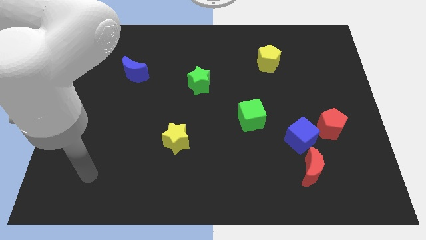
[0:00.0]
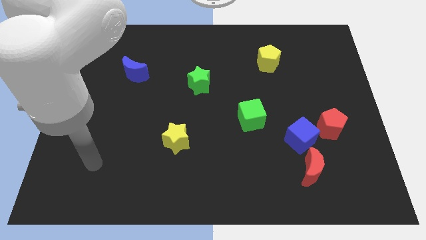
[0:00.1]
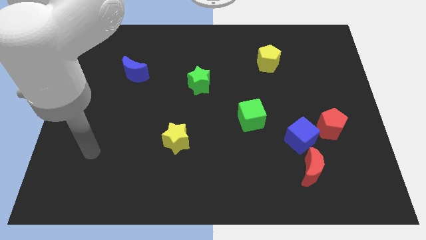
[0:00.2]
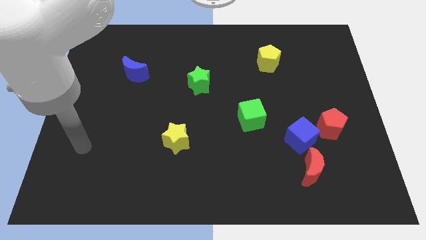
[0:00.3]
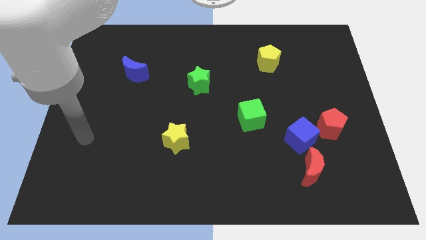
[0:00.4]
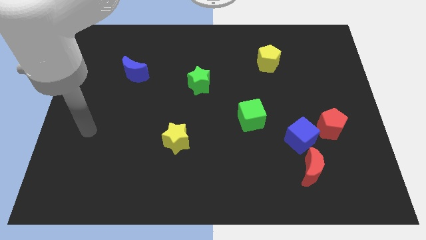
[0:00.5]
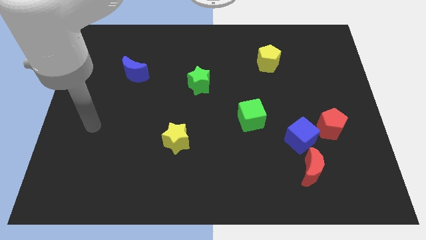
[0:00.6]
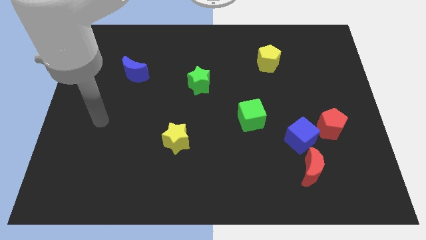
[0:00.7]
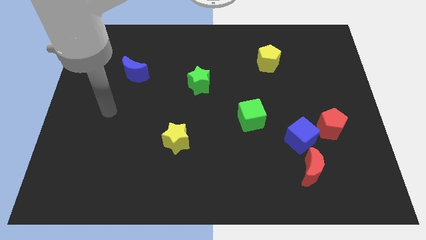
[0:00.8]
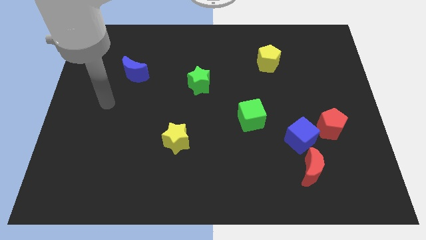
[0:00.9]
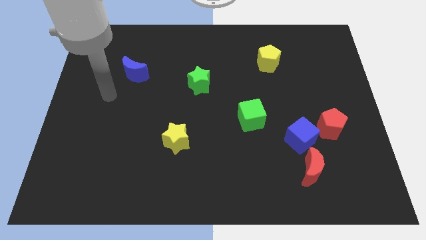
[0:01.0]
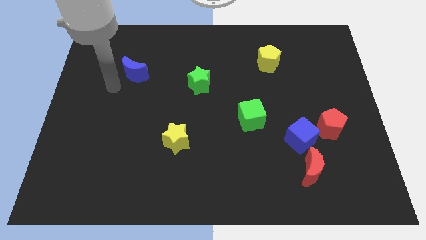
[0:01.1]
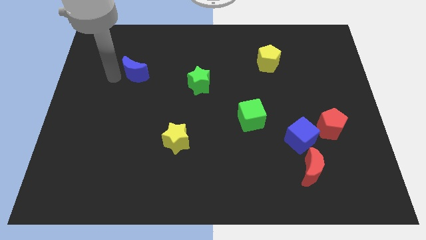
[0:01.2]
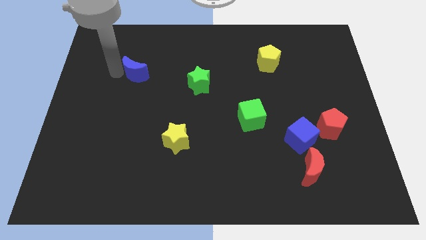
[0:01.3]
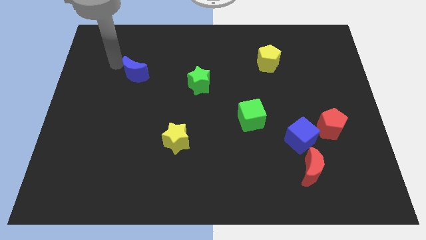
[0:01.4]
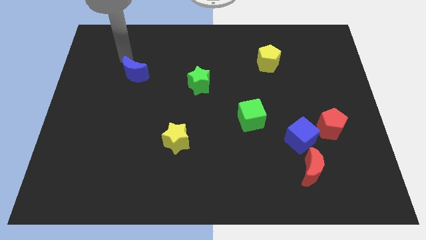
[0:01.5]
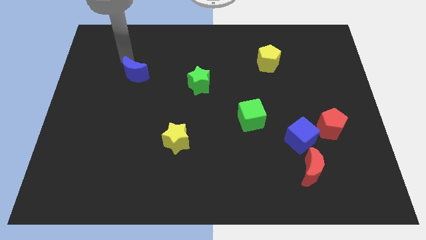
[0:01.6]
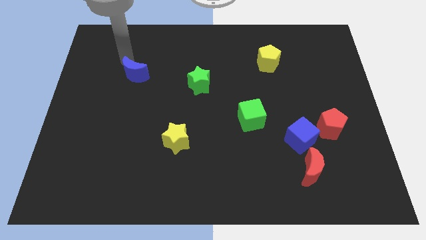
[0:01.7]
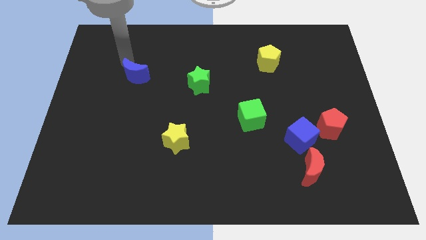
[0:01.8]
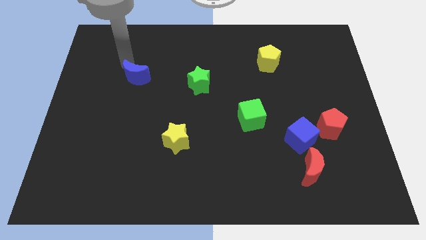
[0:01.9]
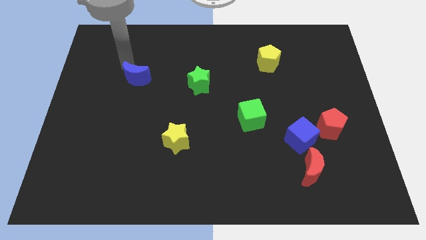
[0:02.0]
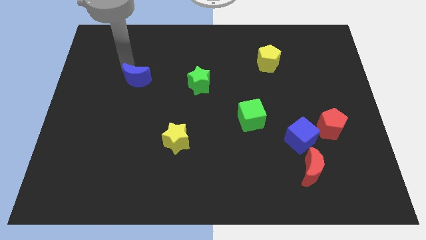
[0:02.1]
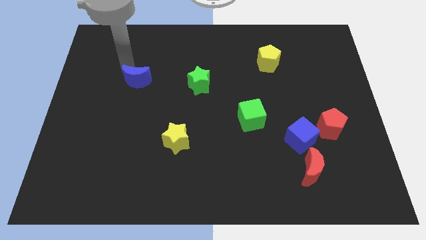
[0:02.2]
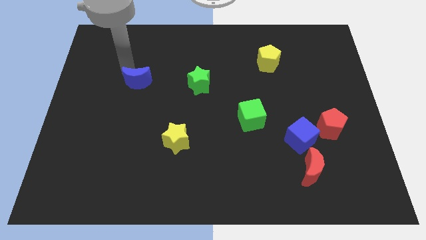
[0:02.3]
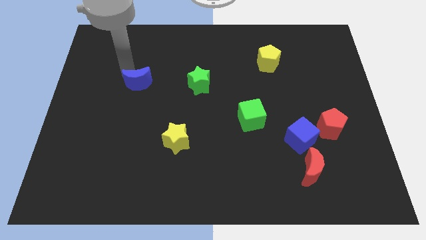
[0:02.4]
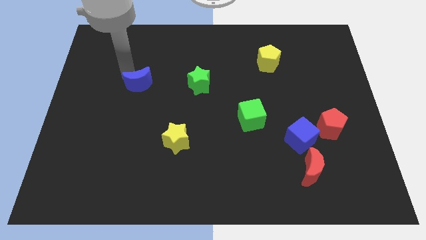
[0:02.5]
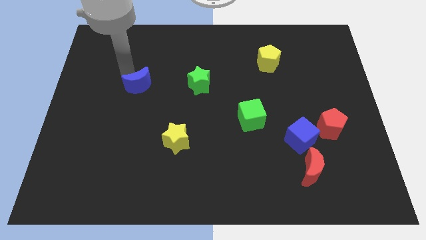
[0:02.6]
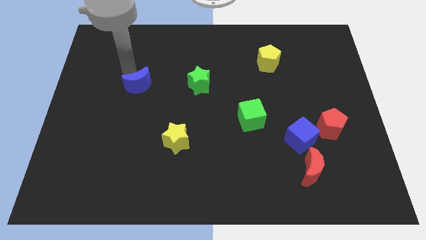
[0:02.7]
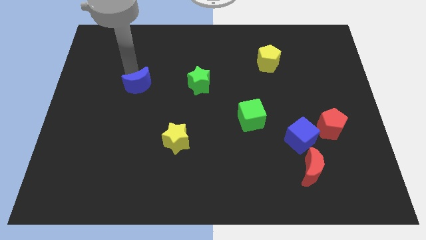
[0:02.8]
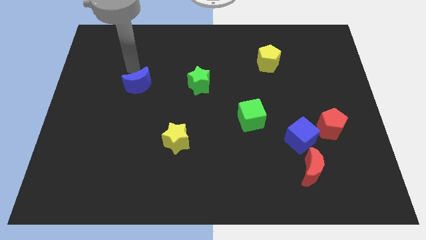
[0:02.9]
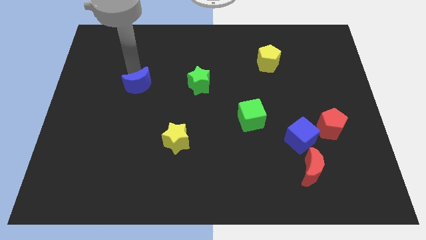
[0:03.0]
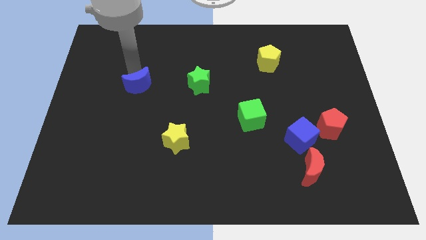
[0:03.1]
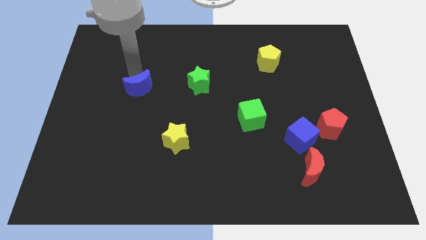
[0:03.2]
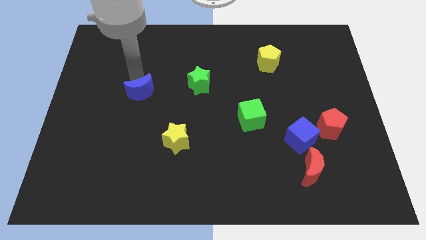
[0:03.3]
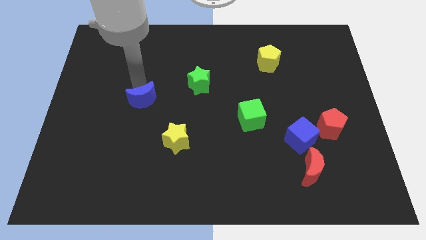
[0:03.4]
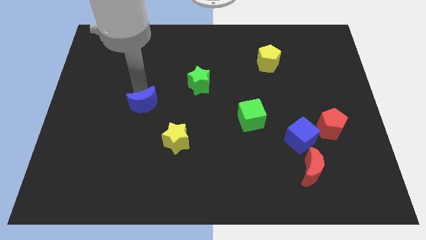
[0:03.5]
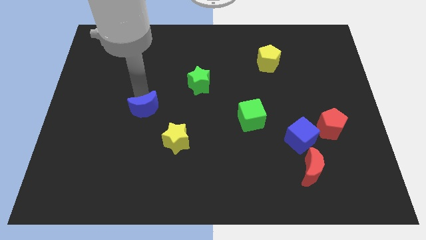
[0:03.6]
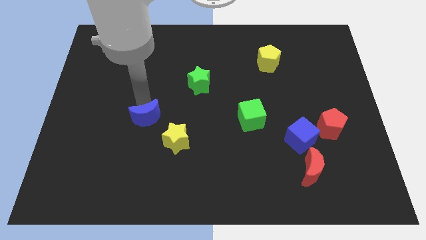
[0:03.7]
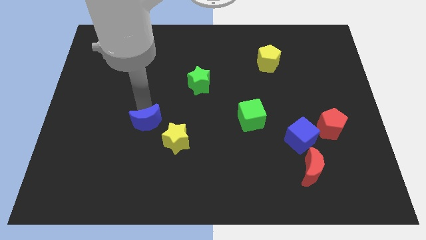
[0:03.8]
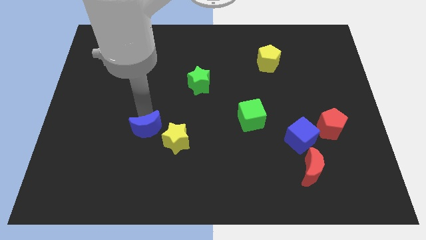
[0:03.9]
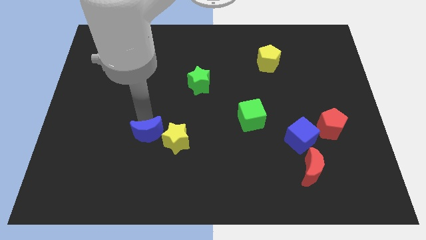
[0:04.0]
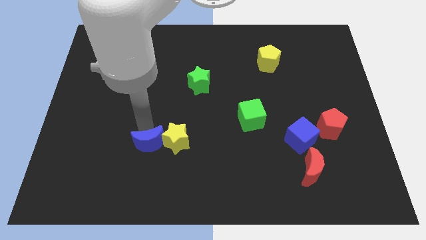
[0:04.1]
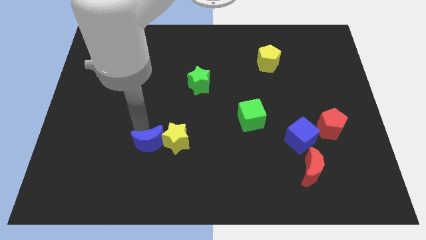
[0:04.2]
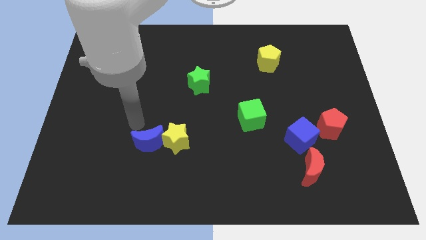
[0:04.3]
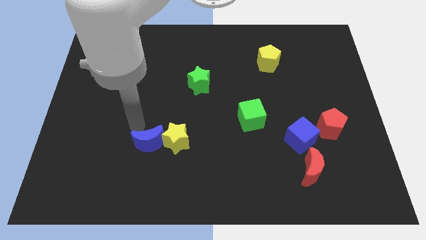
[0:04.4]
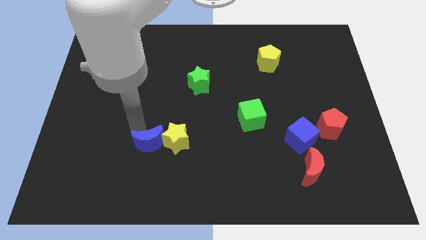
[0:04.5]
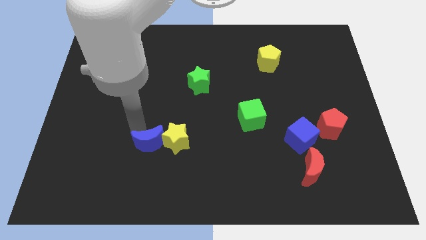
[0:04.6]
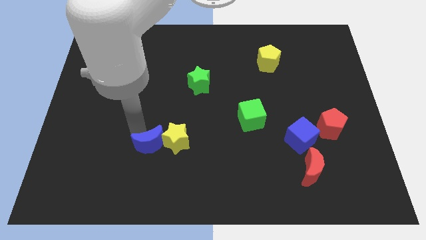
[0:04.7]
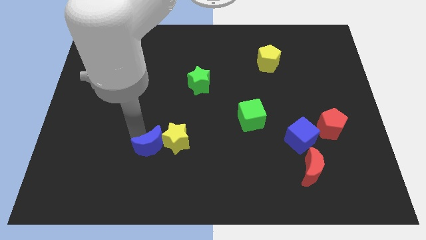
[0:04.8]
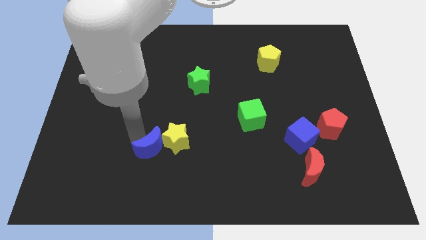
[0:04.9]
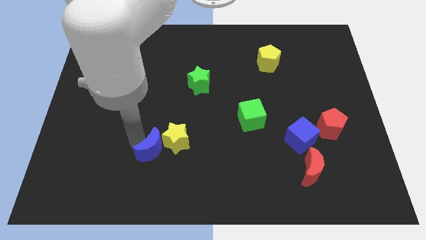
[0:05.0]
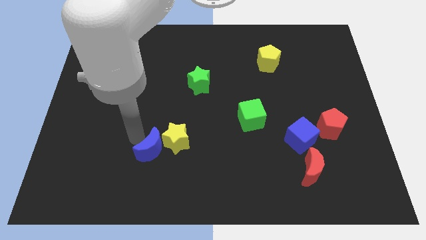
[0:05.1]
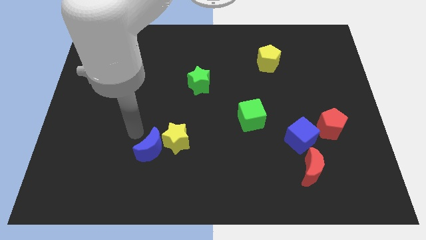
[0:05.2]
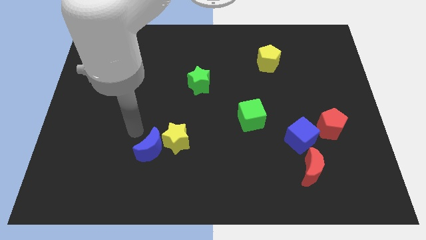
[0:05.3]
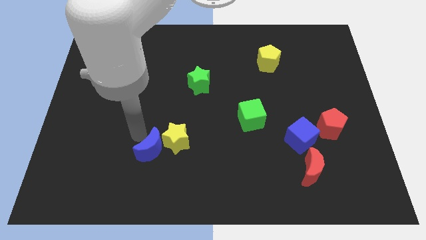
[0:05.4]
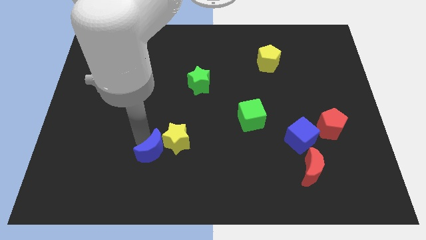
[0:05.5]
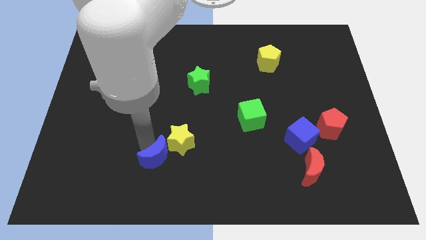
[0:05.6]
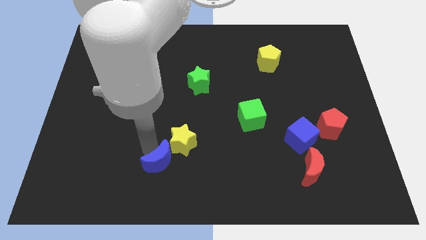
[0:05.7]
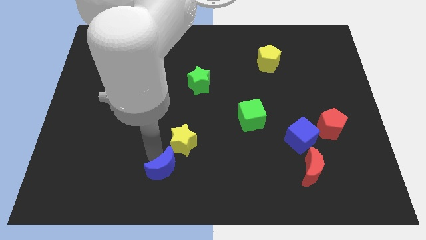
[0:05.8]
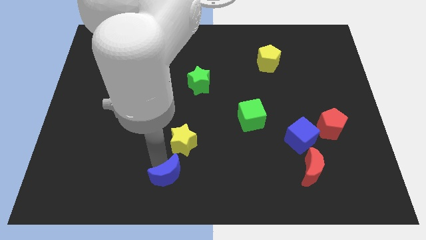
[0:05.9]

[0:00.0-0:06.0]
move the blue moon to the bottom
